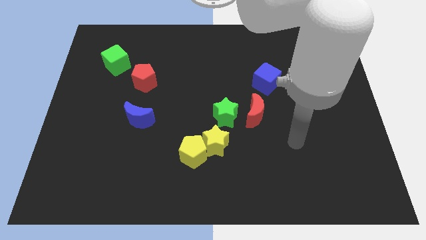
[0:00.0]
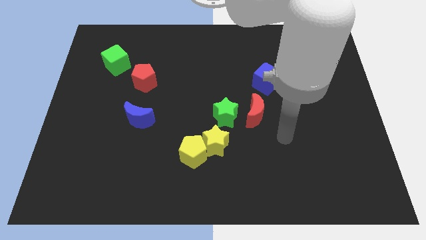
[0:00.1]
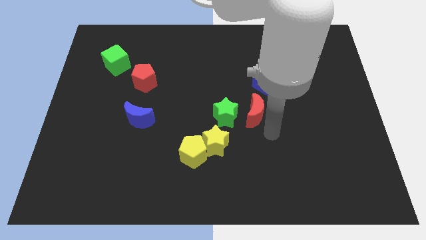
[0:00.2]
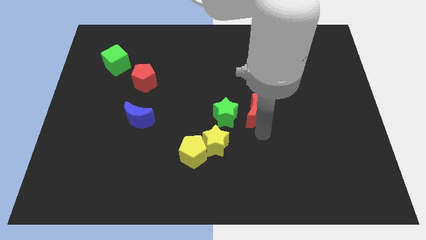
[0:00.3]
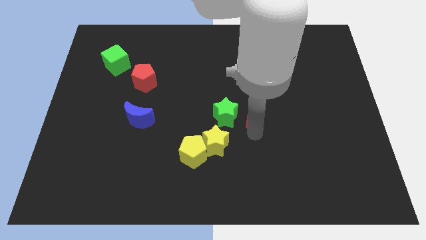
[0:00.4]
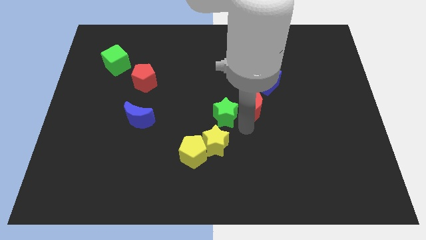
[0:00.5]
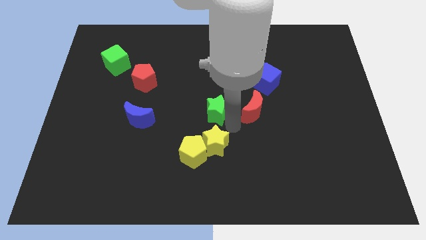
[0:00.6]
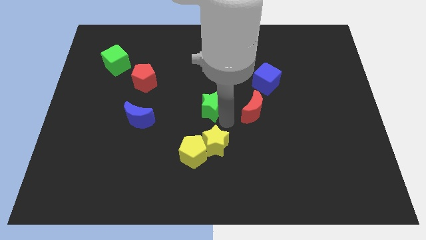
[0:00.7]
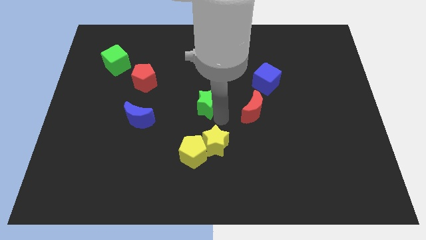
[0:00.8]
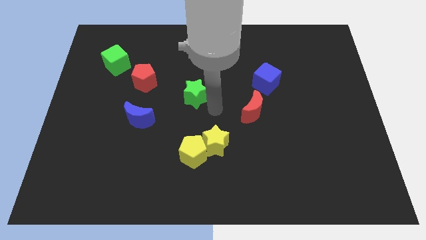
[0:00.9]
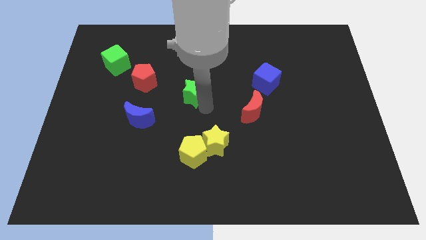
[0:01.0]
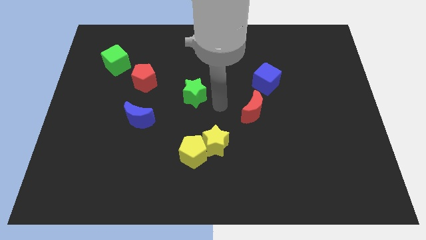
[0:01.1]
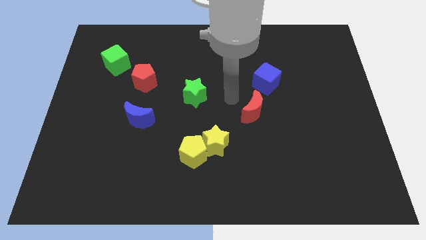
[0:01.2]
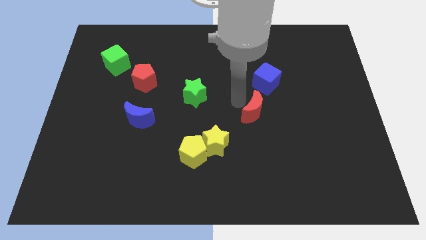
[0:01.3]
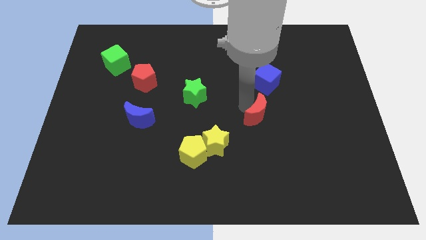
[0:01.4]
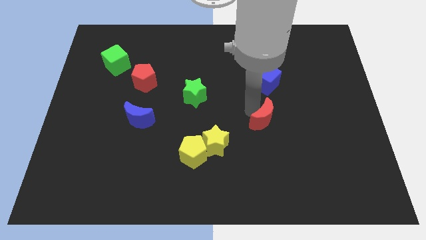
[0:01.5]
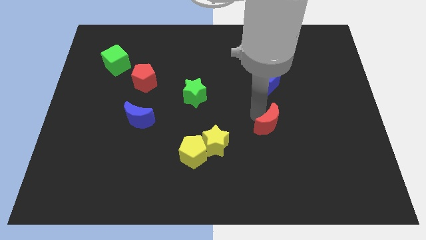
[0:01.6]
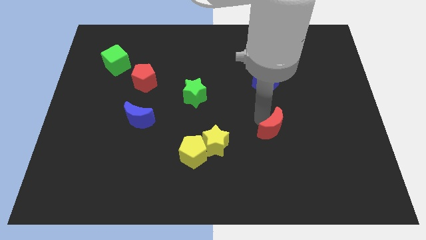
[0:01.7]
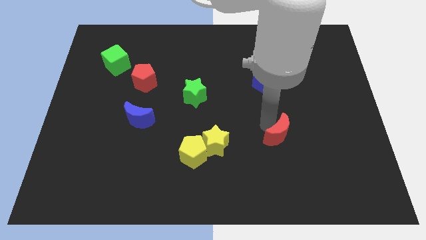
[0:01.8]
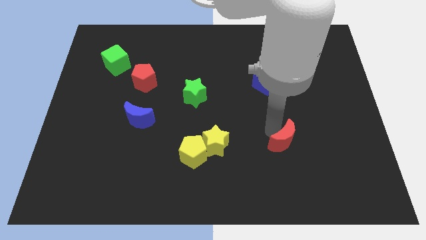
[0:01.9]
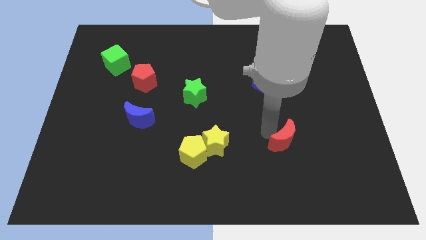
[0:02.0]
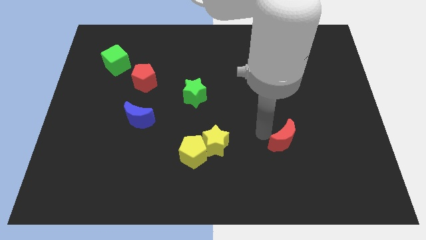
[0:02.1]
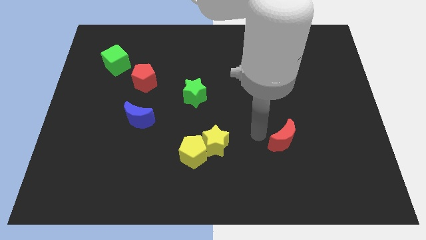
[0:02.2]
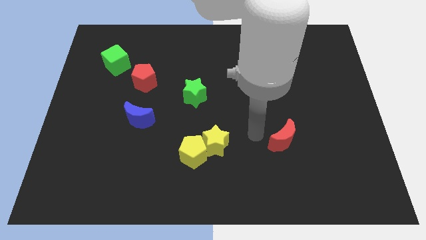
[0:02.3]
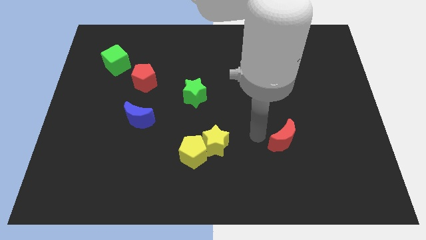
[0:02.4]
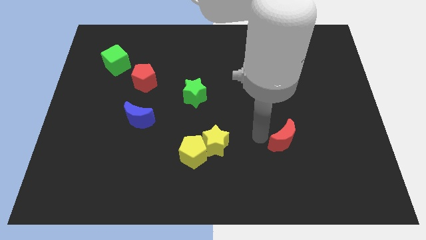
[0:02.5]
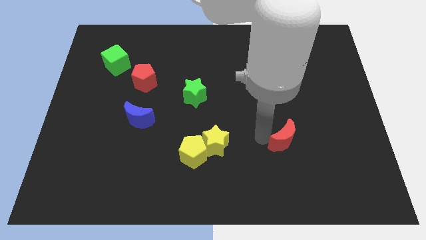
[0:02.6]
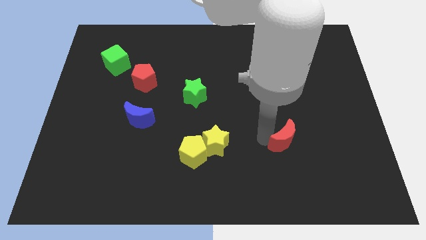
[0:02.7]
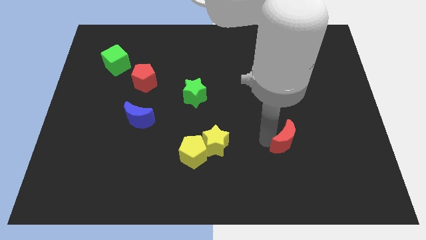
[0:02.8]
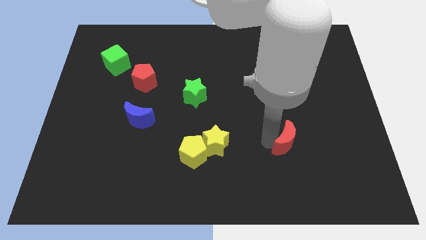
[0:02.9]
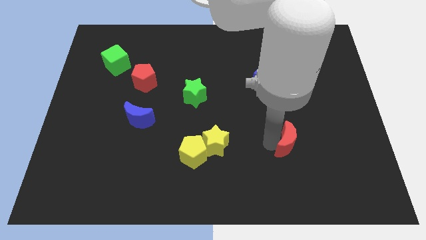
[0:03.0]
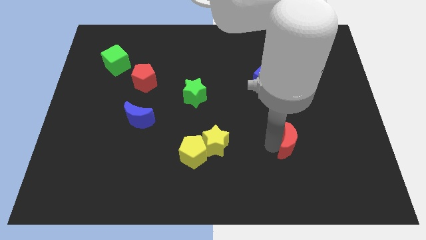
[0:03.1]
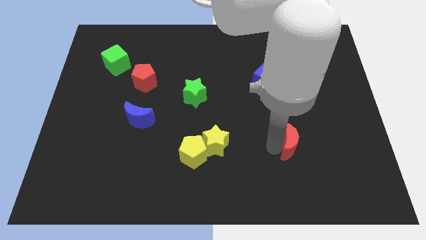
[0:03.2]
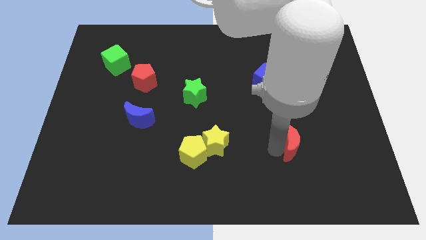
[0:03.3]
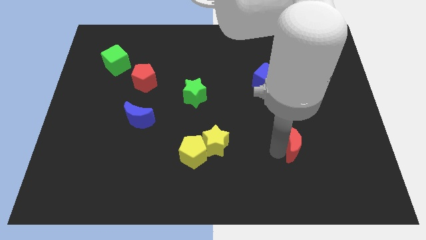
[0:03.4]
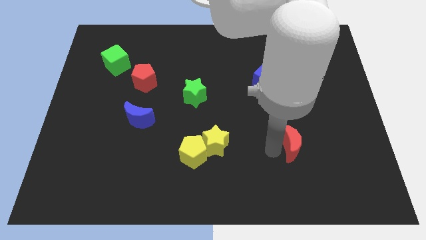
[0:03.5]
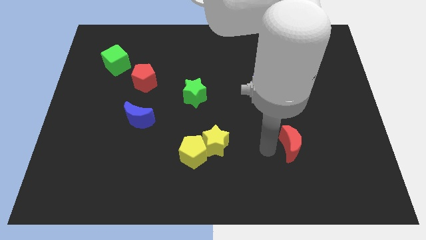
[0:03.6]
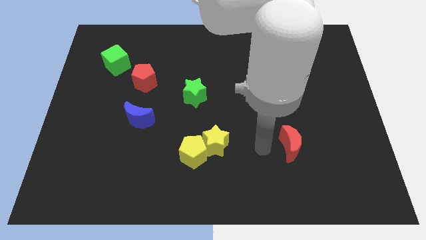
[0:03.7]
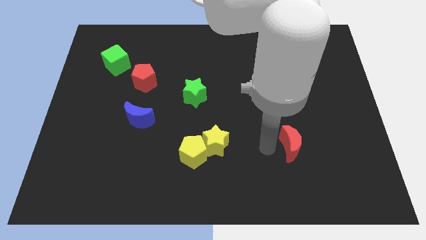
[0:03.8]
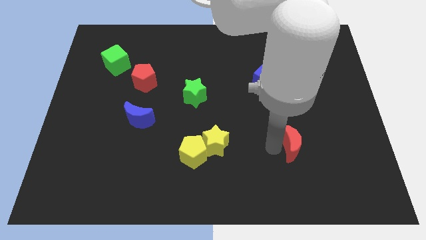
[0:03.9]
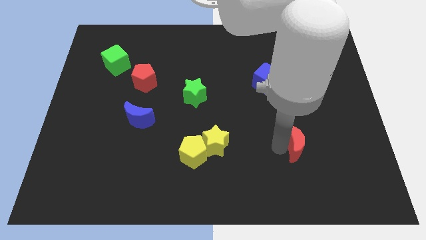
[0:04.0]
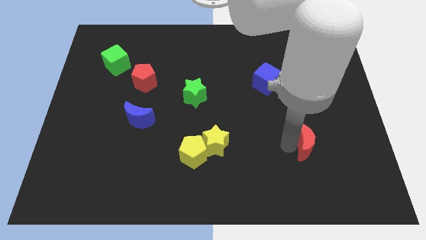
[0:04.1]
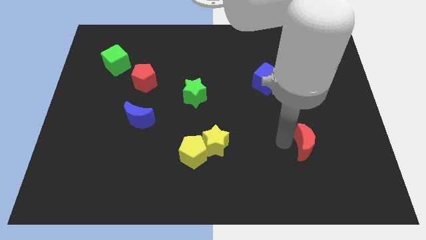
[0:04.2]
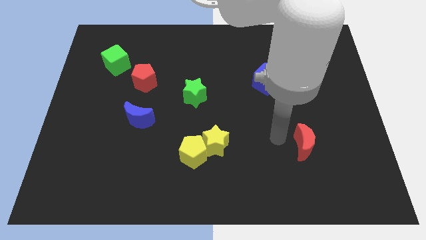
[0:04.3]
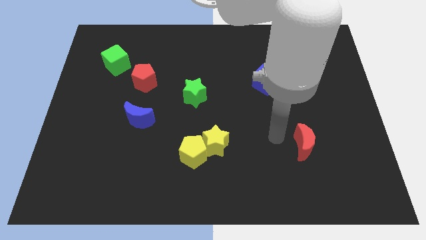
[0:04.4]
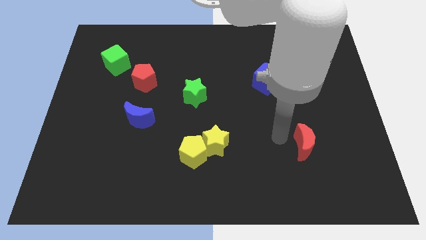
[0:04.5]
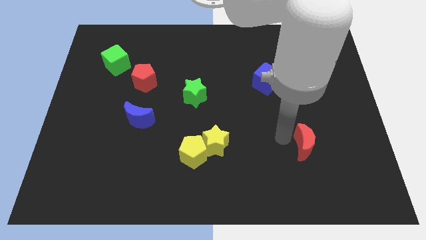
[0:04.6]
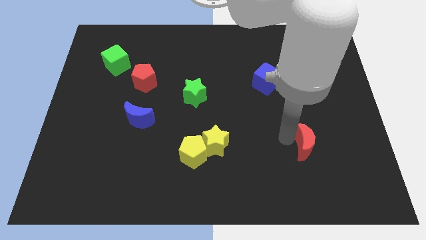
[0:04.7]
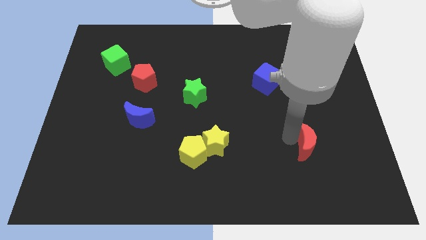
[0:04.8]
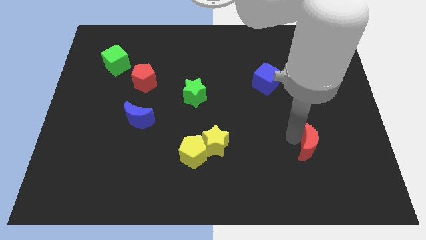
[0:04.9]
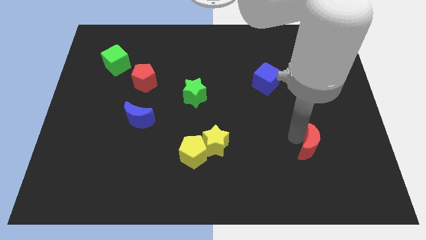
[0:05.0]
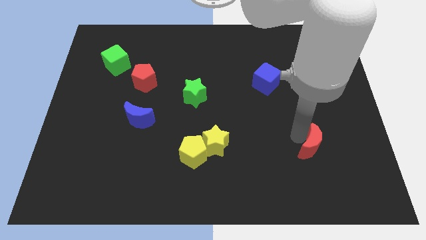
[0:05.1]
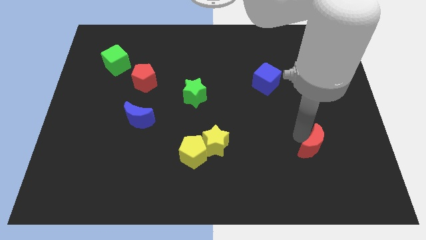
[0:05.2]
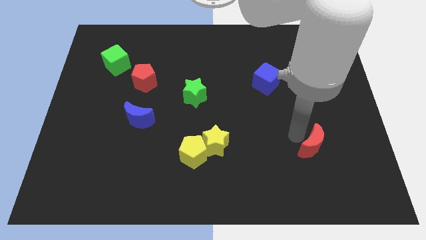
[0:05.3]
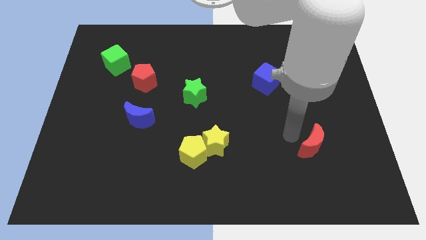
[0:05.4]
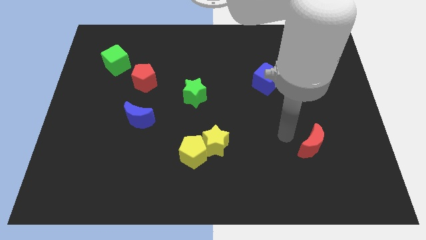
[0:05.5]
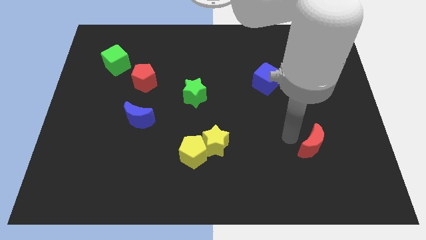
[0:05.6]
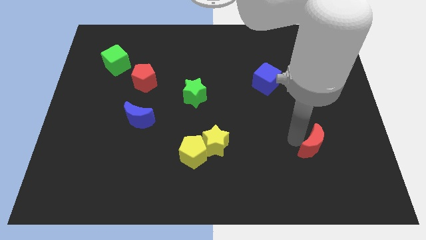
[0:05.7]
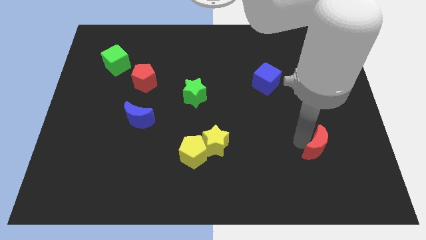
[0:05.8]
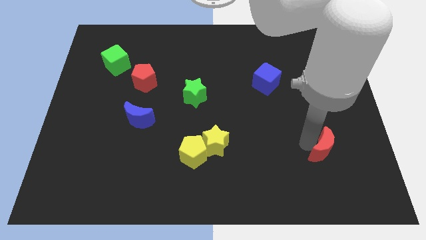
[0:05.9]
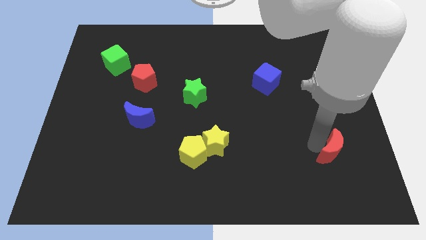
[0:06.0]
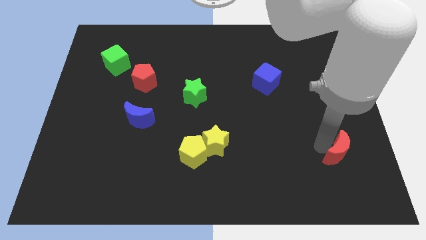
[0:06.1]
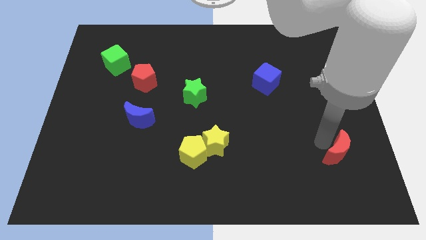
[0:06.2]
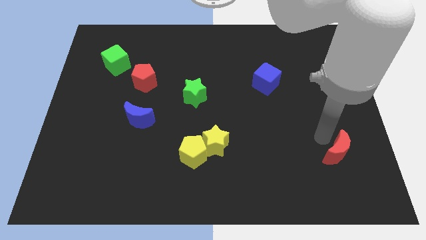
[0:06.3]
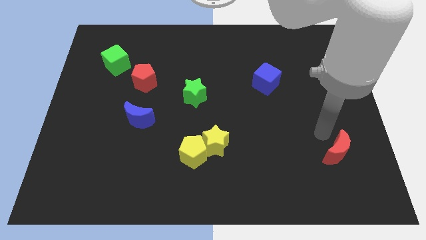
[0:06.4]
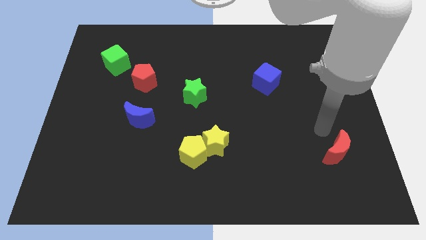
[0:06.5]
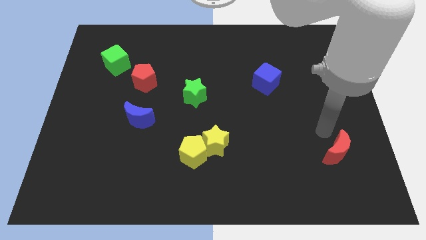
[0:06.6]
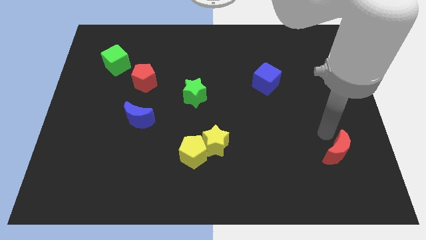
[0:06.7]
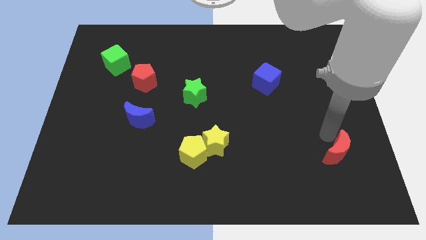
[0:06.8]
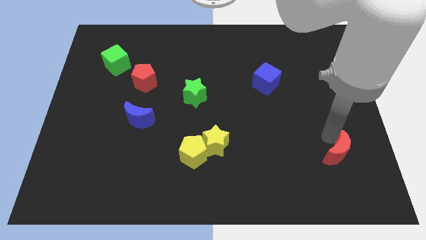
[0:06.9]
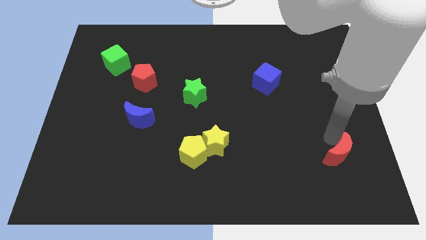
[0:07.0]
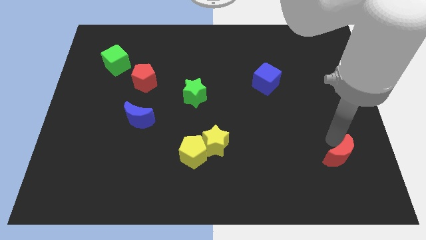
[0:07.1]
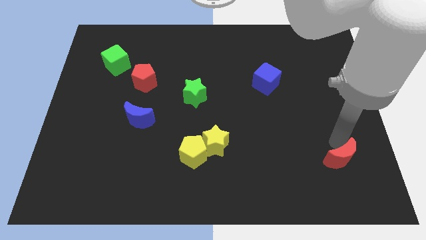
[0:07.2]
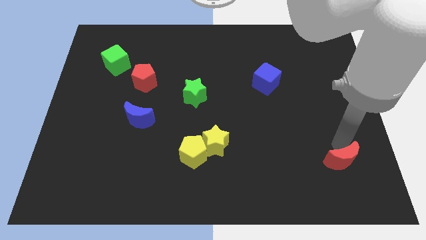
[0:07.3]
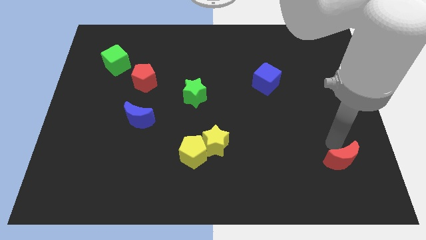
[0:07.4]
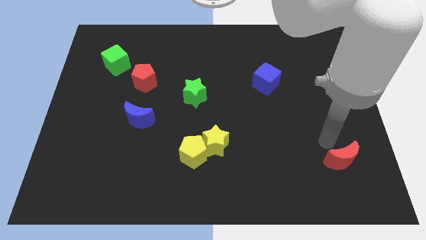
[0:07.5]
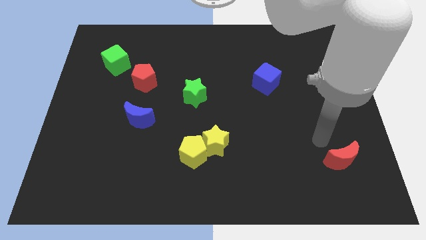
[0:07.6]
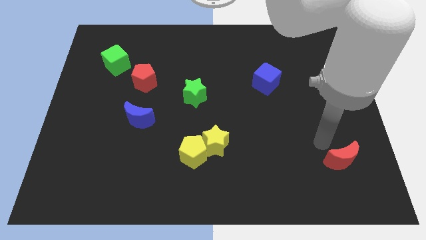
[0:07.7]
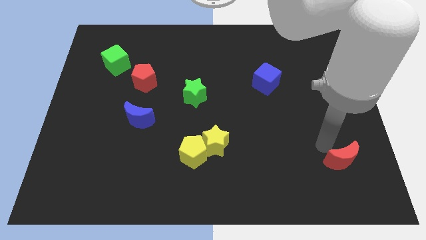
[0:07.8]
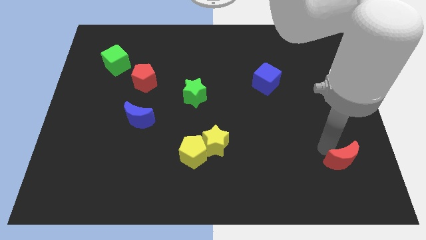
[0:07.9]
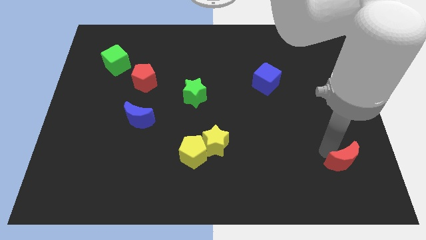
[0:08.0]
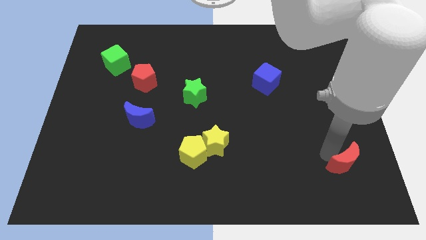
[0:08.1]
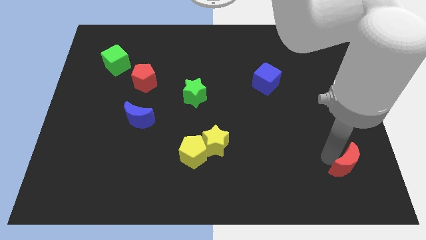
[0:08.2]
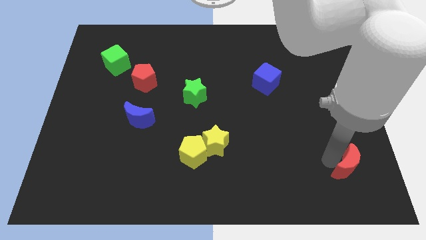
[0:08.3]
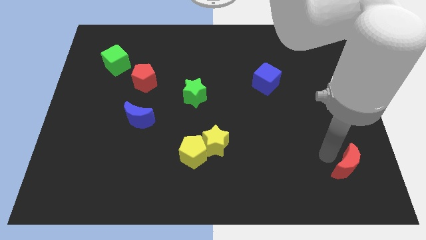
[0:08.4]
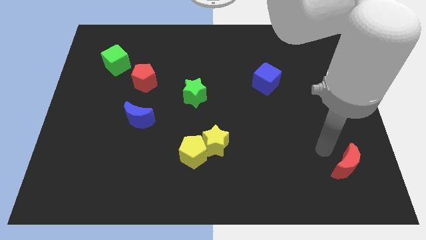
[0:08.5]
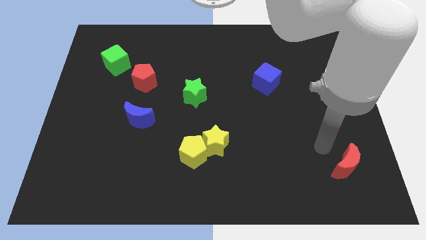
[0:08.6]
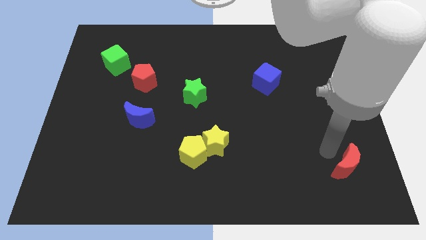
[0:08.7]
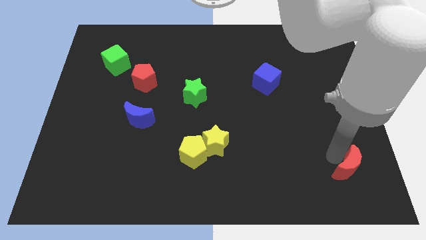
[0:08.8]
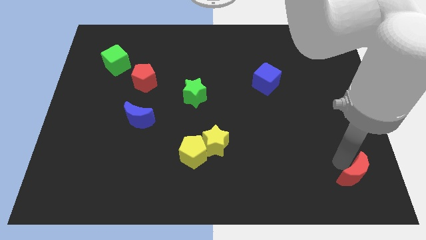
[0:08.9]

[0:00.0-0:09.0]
move the red moon to the bottom right corner
